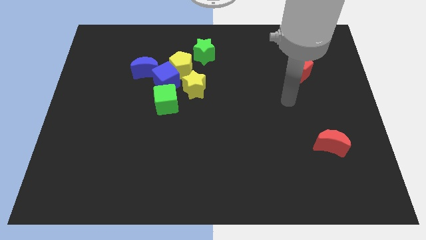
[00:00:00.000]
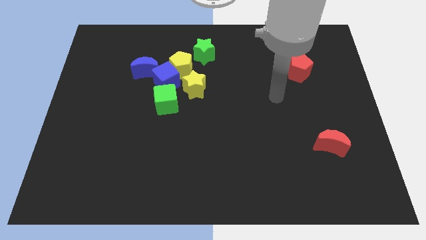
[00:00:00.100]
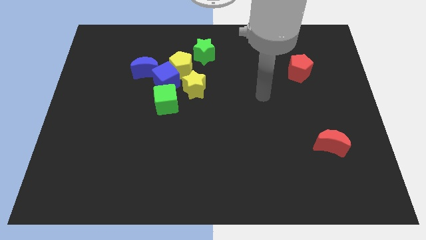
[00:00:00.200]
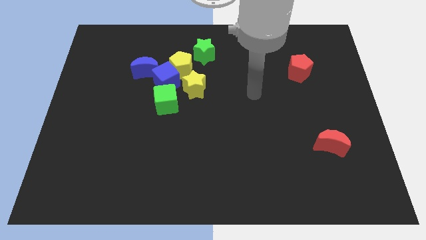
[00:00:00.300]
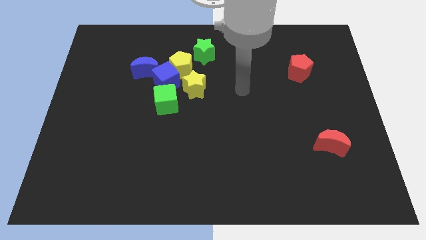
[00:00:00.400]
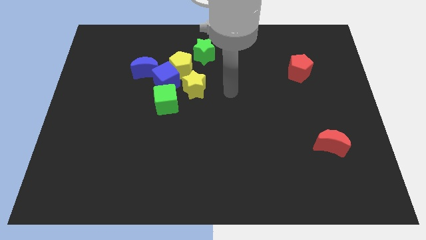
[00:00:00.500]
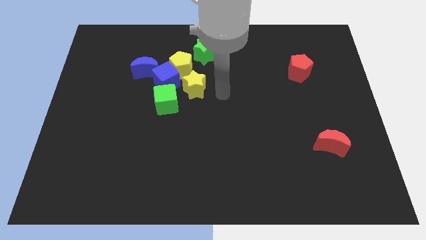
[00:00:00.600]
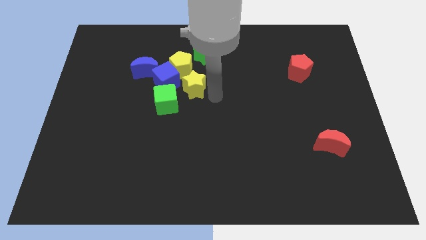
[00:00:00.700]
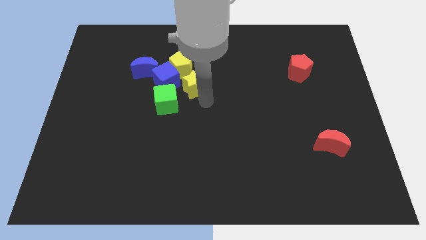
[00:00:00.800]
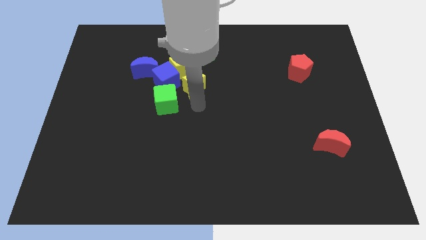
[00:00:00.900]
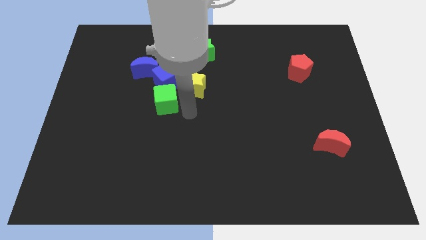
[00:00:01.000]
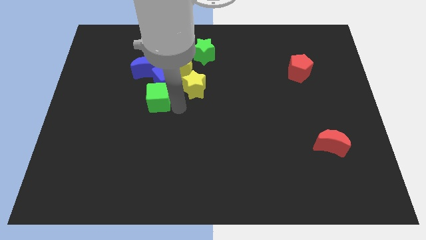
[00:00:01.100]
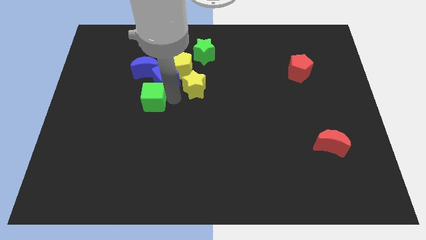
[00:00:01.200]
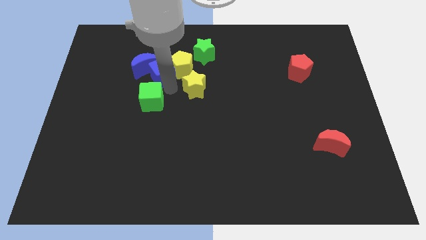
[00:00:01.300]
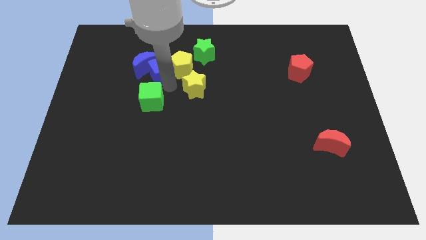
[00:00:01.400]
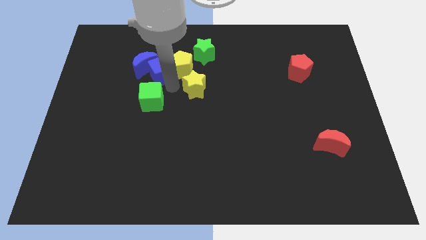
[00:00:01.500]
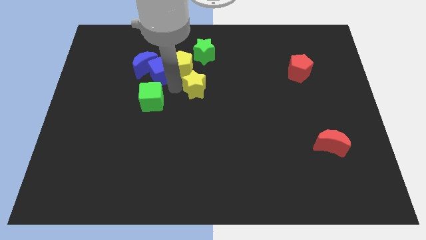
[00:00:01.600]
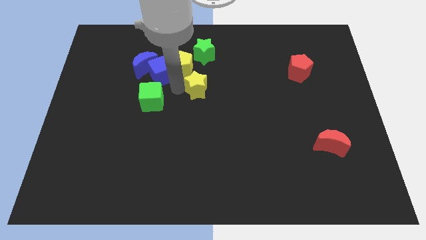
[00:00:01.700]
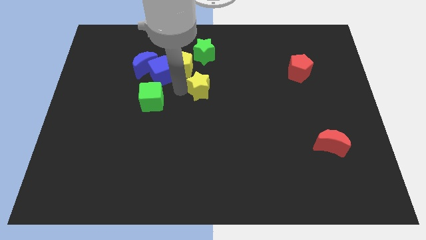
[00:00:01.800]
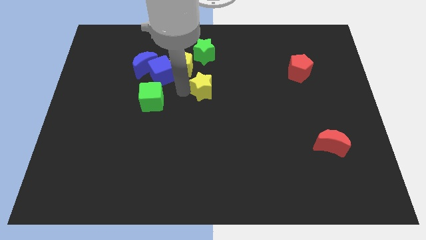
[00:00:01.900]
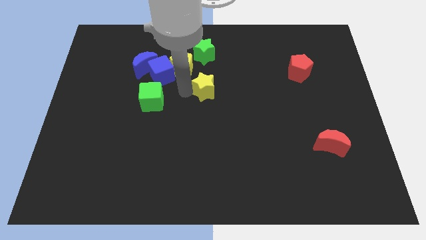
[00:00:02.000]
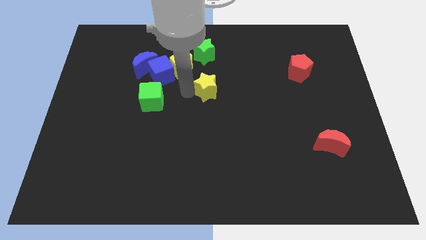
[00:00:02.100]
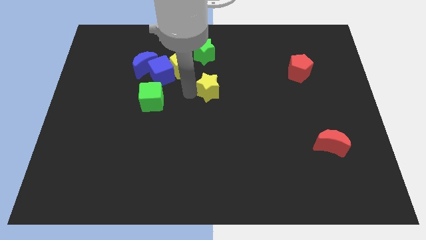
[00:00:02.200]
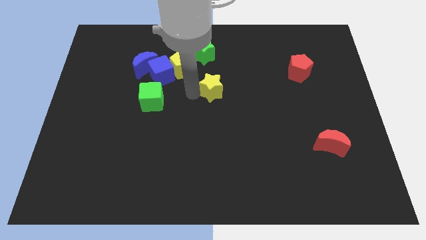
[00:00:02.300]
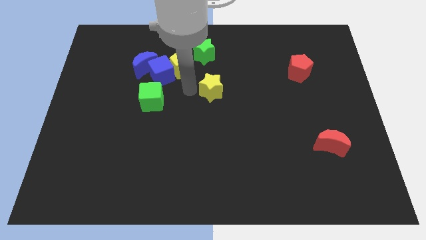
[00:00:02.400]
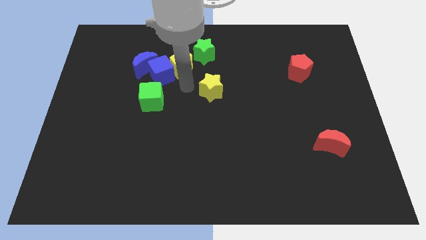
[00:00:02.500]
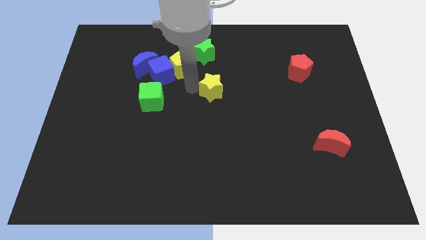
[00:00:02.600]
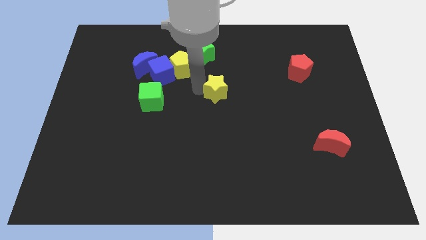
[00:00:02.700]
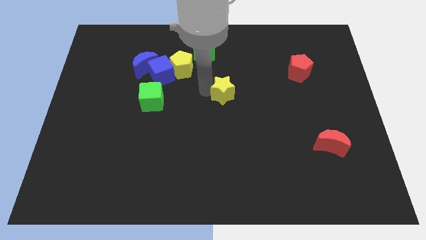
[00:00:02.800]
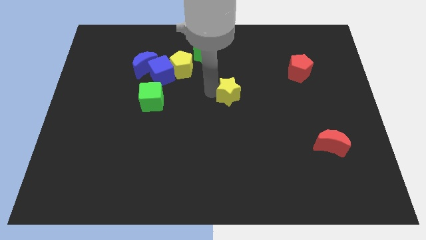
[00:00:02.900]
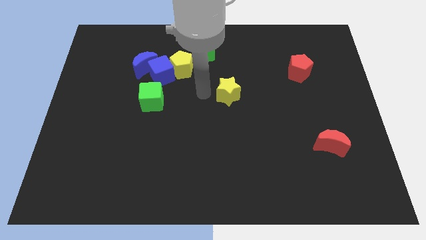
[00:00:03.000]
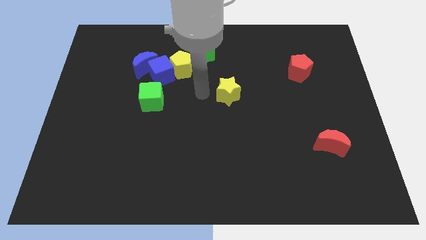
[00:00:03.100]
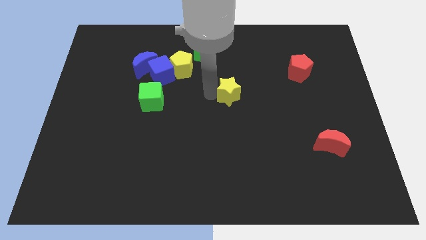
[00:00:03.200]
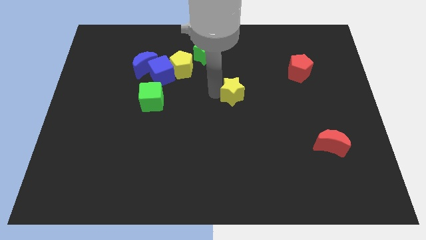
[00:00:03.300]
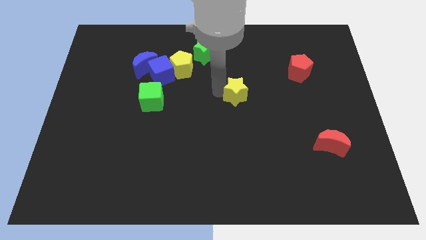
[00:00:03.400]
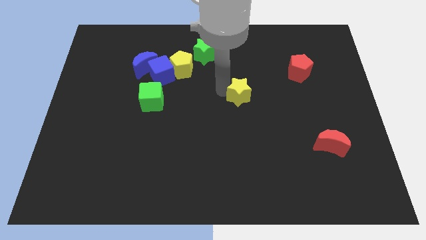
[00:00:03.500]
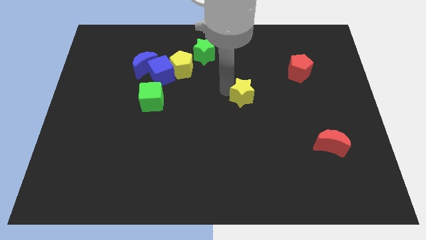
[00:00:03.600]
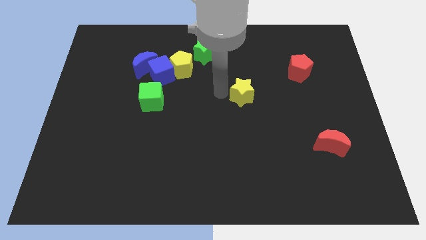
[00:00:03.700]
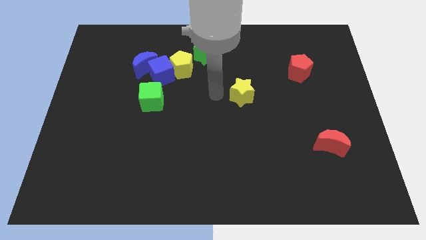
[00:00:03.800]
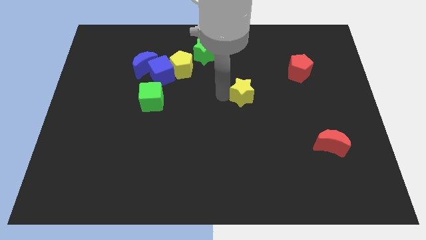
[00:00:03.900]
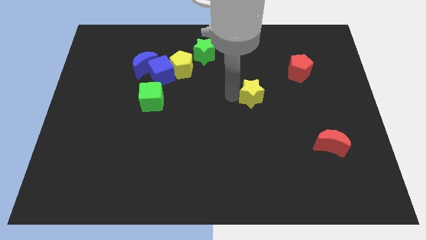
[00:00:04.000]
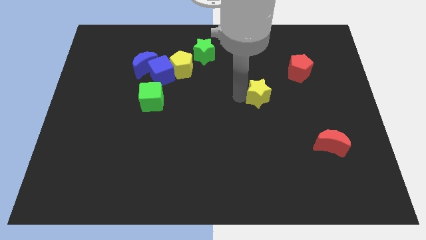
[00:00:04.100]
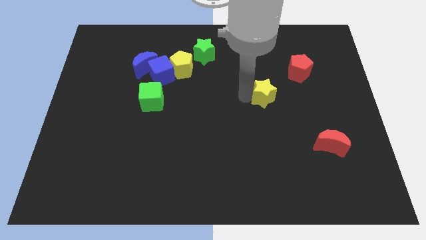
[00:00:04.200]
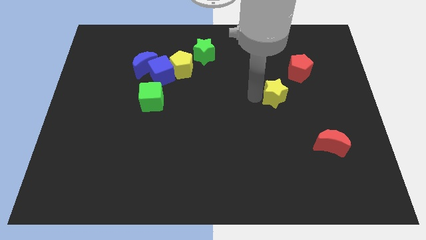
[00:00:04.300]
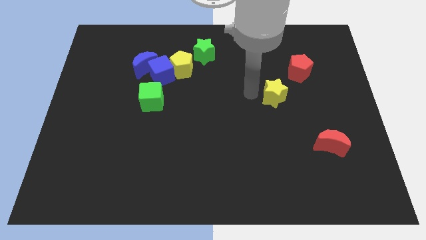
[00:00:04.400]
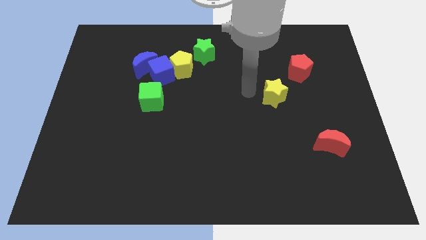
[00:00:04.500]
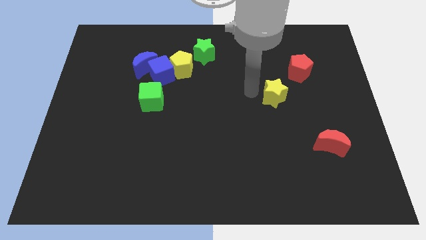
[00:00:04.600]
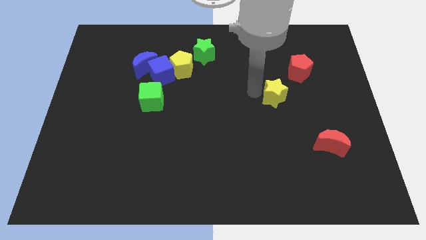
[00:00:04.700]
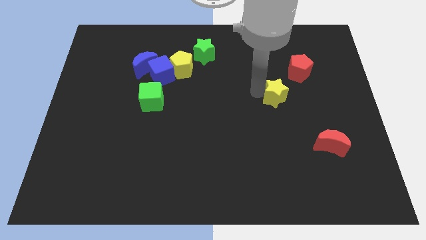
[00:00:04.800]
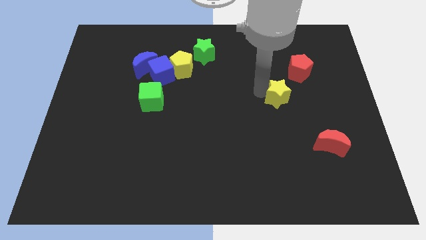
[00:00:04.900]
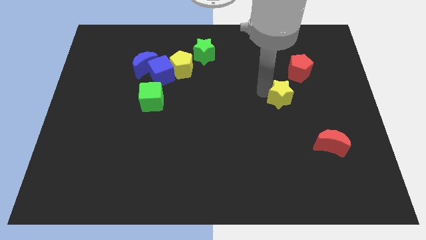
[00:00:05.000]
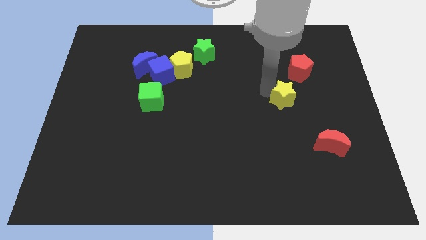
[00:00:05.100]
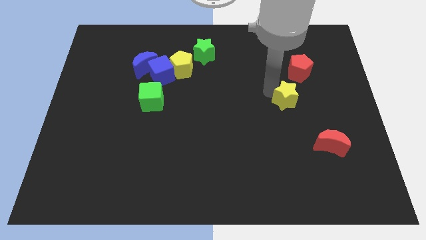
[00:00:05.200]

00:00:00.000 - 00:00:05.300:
put the yellow star to the bottom side of the red pentagon

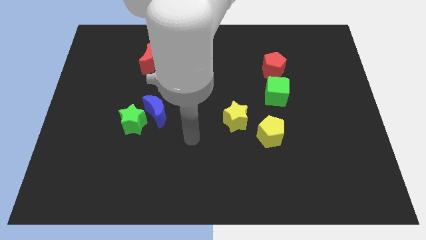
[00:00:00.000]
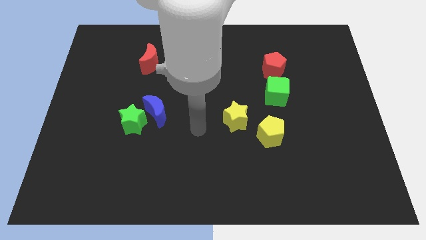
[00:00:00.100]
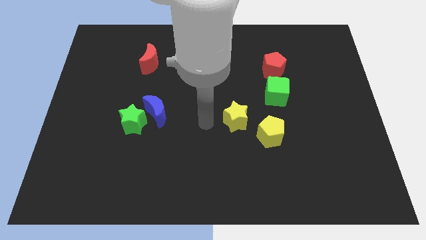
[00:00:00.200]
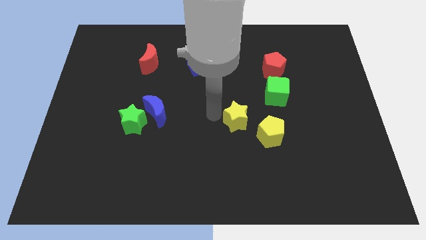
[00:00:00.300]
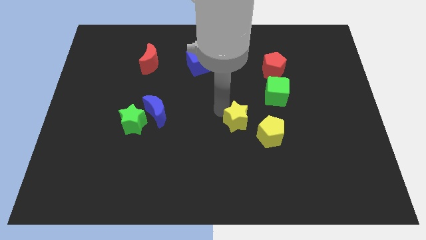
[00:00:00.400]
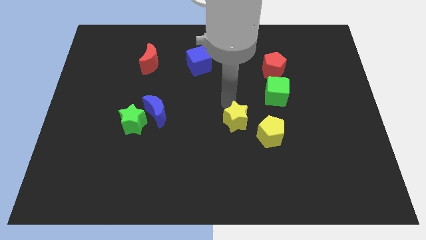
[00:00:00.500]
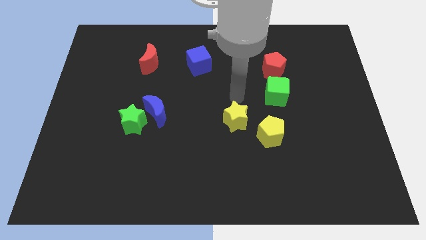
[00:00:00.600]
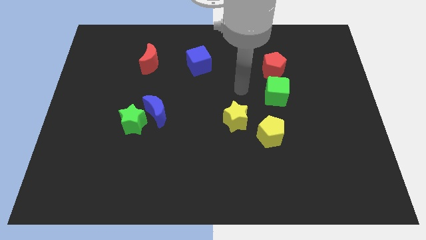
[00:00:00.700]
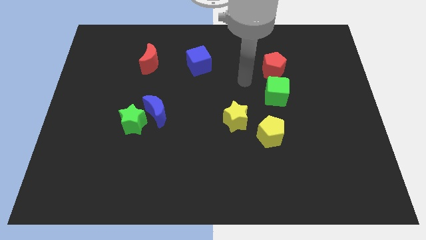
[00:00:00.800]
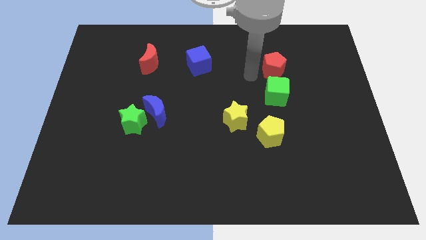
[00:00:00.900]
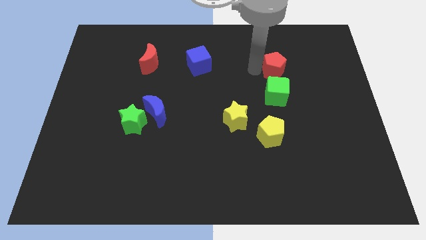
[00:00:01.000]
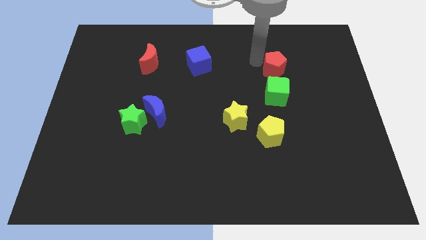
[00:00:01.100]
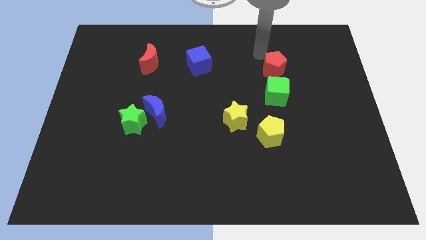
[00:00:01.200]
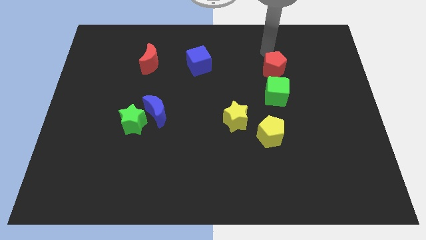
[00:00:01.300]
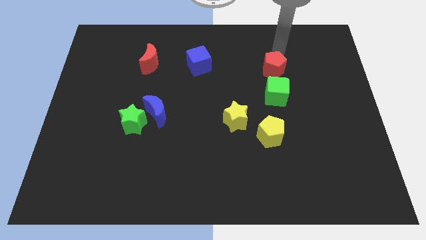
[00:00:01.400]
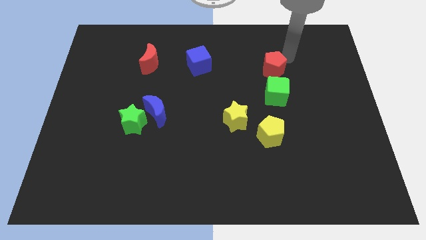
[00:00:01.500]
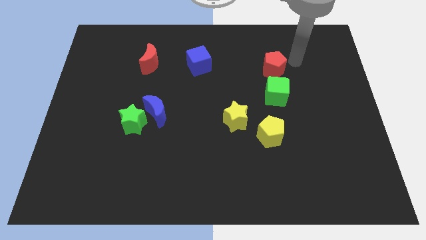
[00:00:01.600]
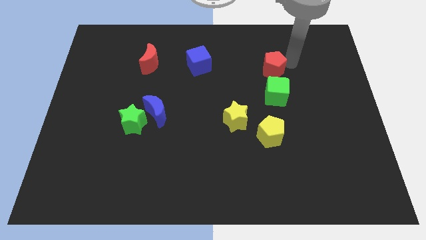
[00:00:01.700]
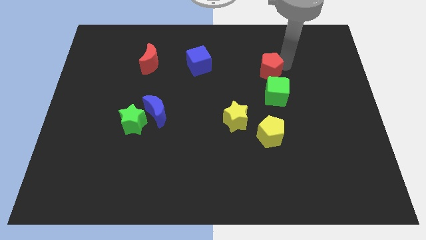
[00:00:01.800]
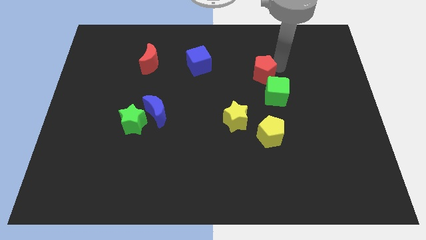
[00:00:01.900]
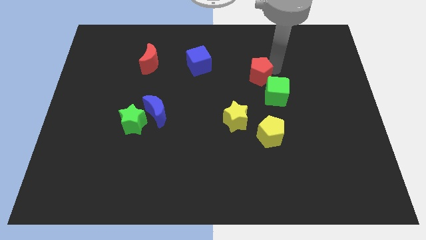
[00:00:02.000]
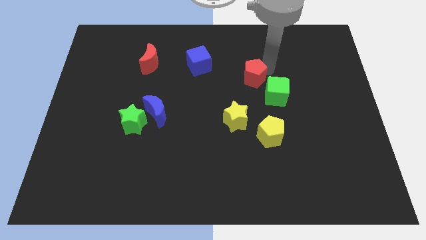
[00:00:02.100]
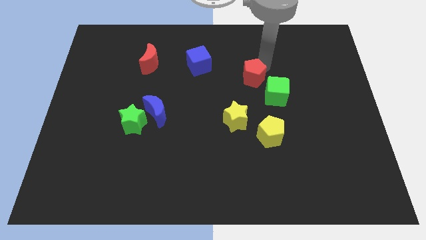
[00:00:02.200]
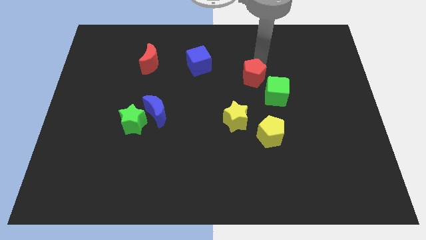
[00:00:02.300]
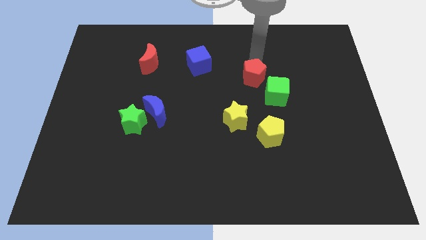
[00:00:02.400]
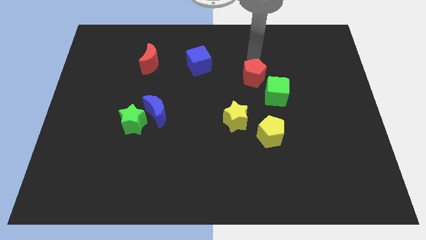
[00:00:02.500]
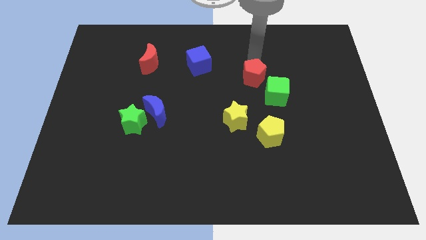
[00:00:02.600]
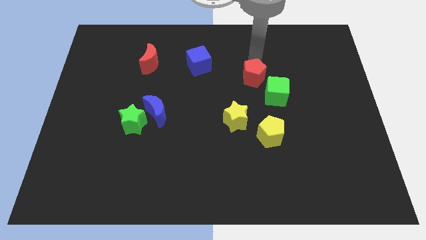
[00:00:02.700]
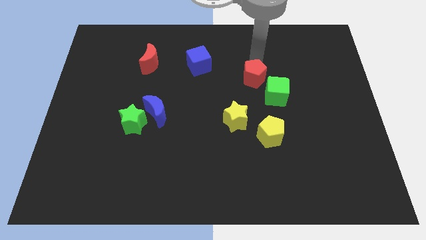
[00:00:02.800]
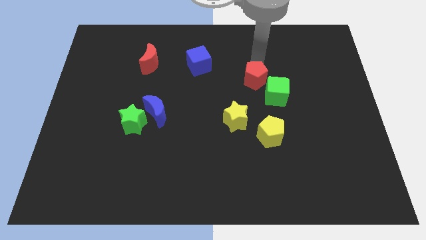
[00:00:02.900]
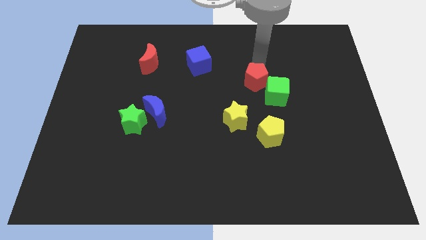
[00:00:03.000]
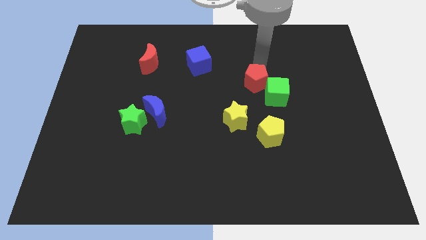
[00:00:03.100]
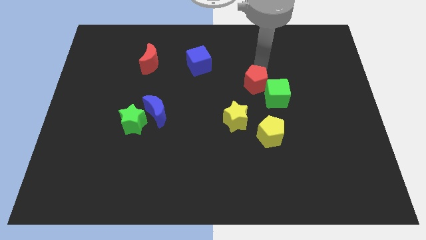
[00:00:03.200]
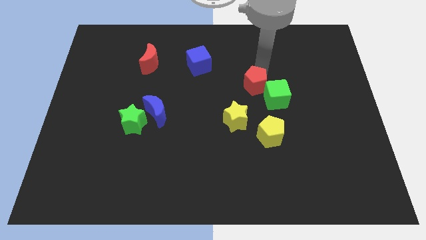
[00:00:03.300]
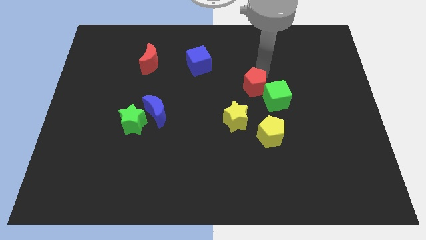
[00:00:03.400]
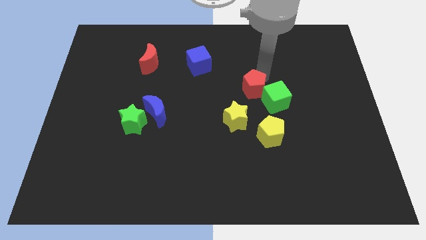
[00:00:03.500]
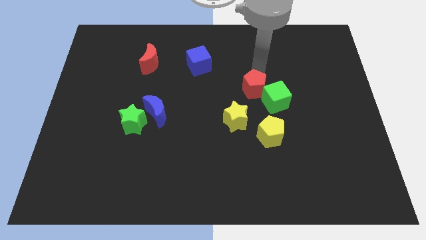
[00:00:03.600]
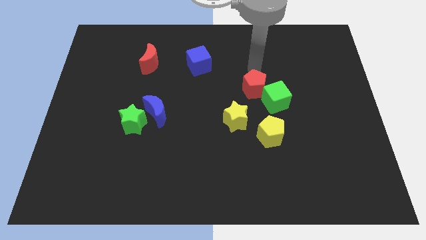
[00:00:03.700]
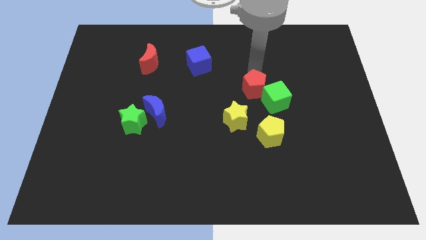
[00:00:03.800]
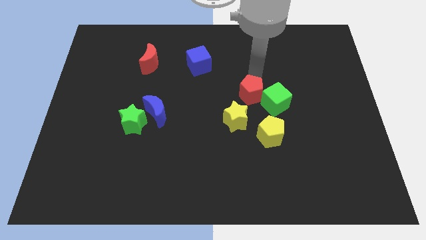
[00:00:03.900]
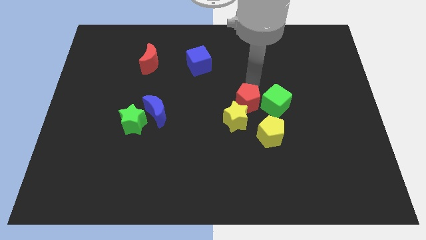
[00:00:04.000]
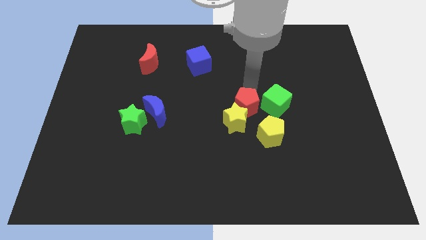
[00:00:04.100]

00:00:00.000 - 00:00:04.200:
put the red pentagon to the bottom left of the green cube
